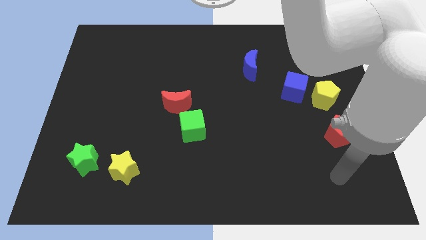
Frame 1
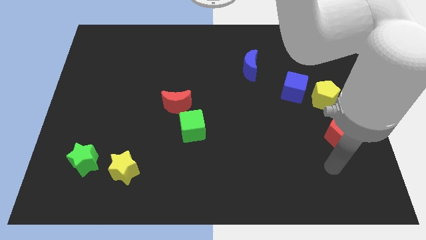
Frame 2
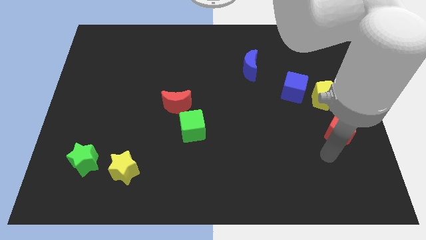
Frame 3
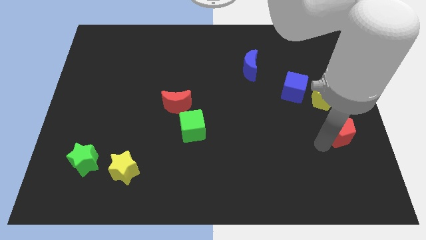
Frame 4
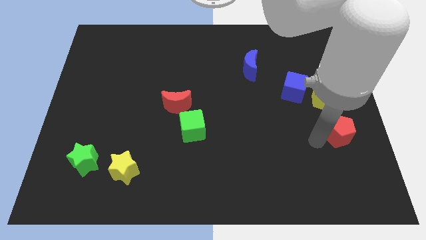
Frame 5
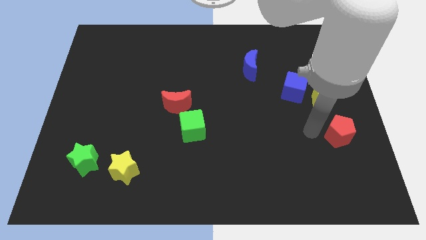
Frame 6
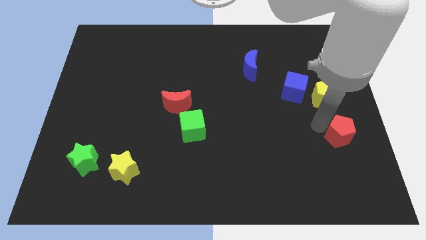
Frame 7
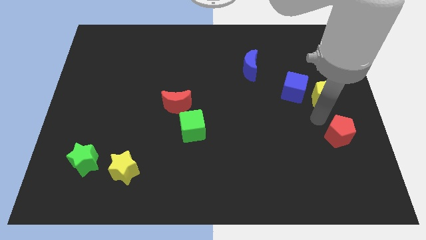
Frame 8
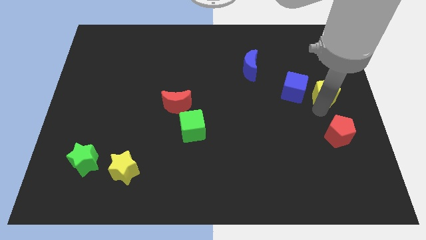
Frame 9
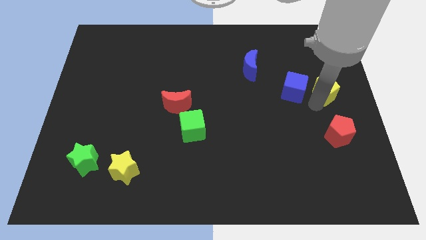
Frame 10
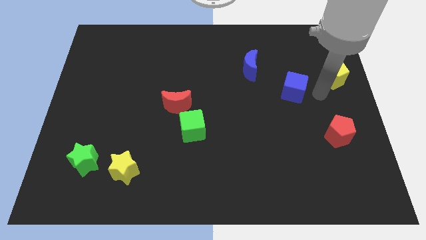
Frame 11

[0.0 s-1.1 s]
pull the blue cube apart from the yellow pentagon

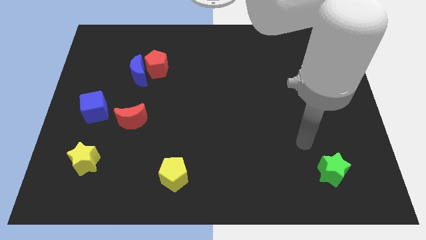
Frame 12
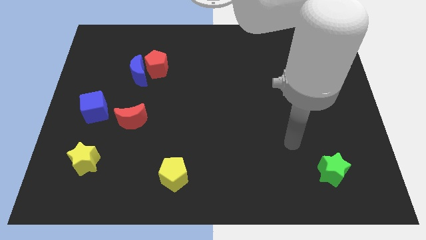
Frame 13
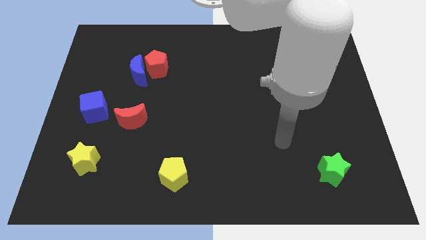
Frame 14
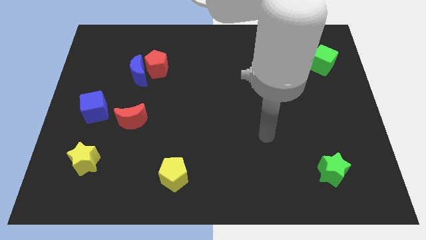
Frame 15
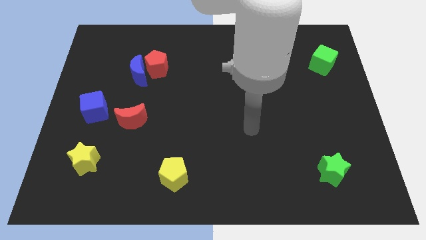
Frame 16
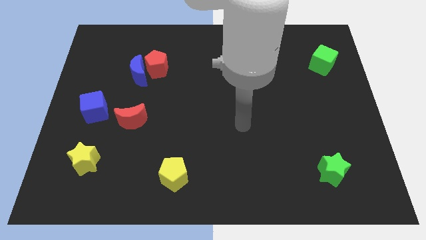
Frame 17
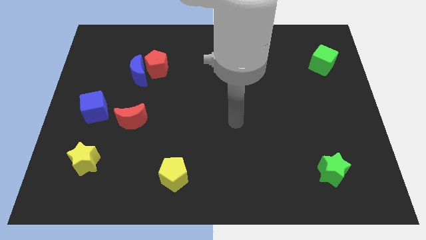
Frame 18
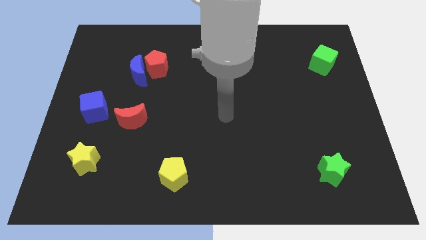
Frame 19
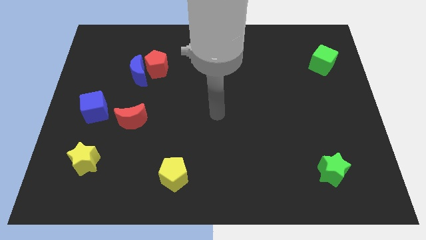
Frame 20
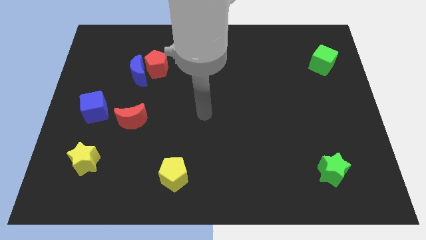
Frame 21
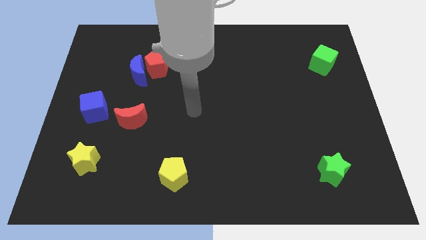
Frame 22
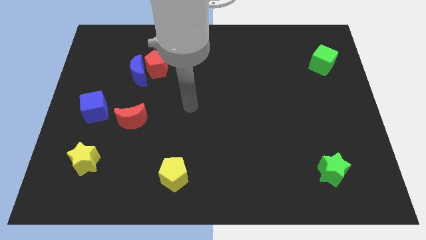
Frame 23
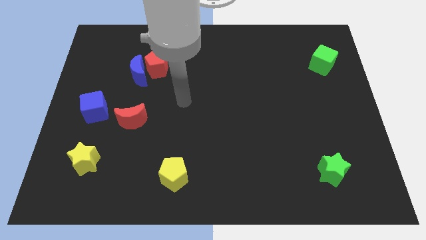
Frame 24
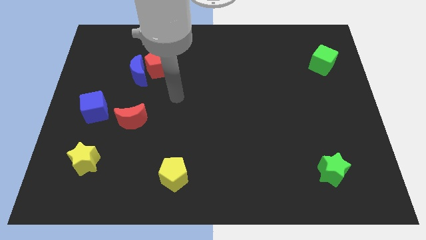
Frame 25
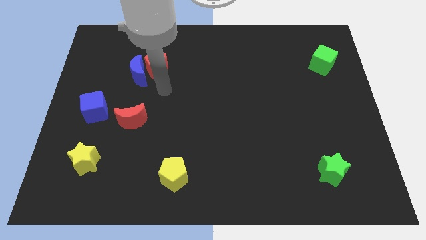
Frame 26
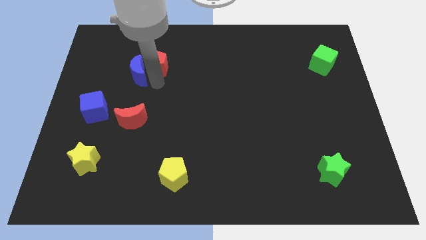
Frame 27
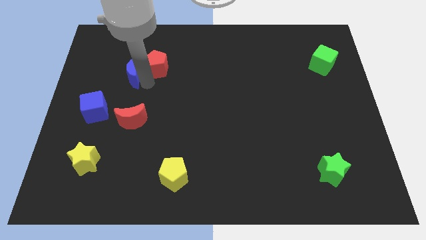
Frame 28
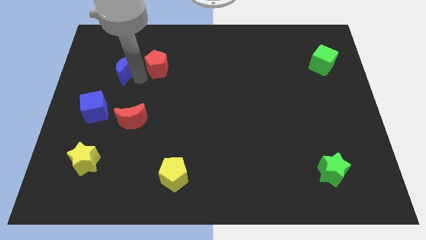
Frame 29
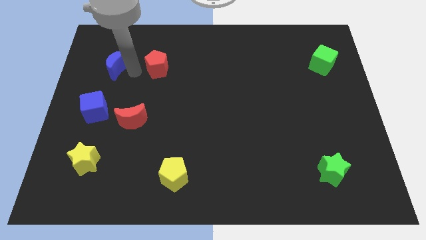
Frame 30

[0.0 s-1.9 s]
pull the red pentagon apart from the blue moon

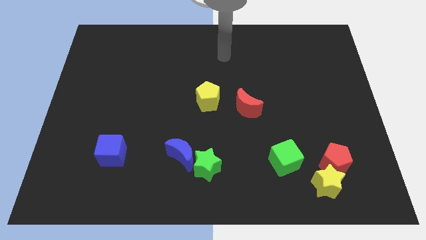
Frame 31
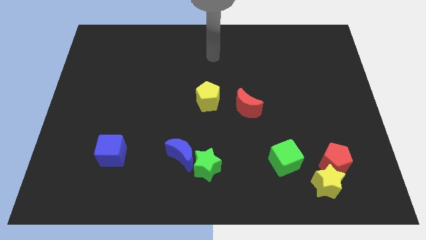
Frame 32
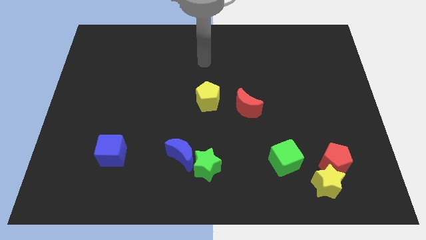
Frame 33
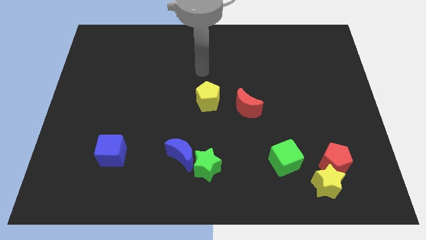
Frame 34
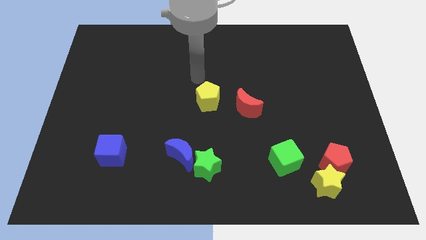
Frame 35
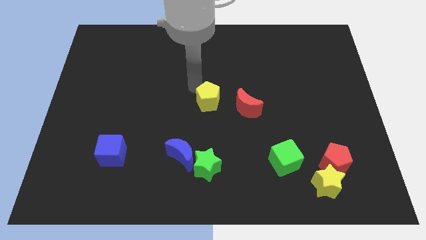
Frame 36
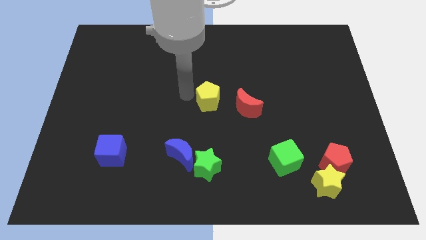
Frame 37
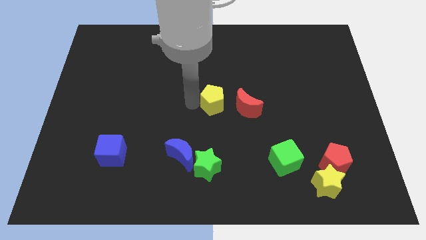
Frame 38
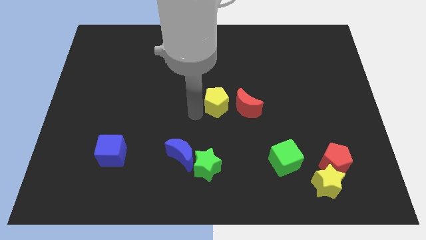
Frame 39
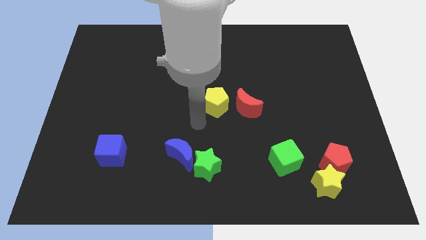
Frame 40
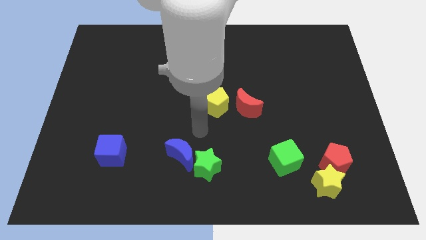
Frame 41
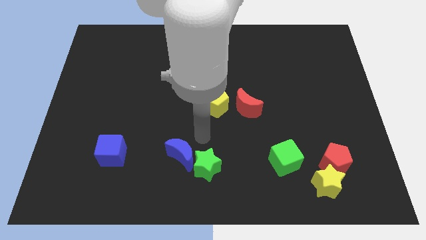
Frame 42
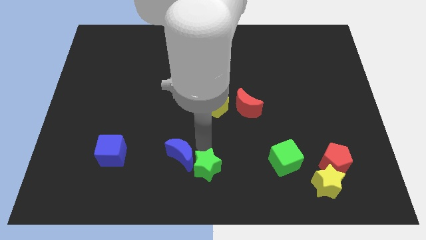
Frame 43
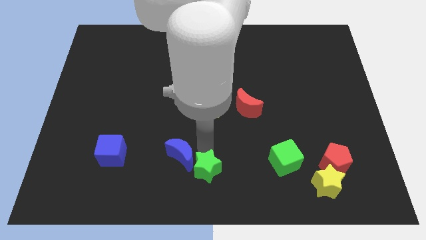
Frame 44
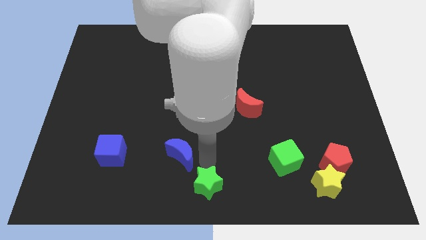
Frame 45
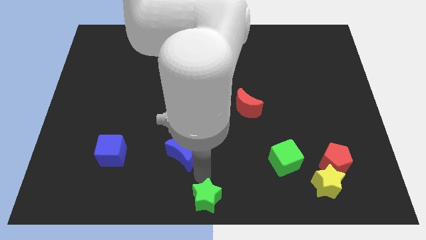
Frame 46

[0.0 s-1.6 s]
move the blue moon away from the green star

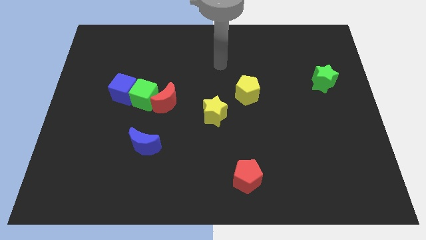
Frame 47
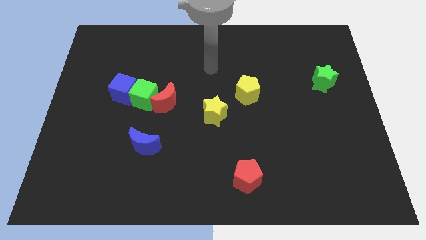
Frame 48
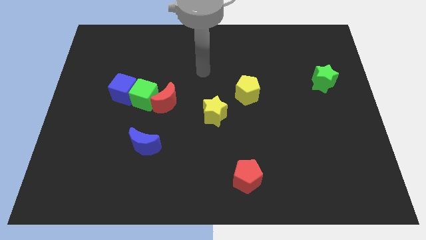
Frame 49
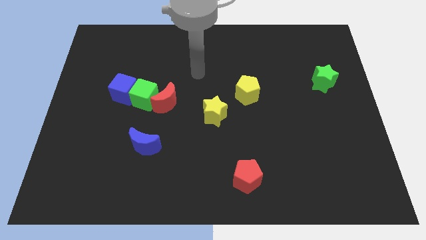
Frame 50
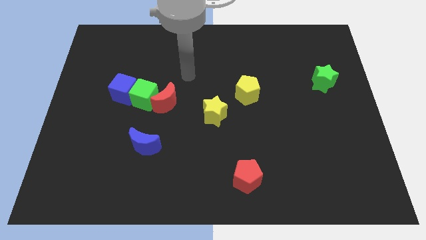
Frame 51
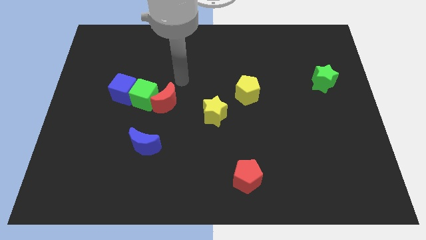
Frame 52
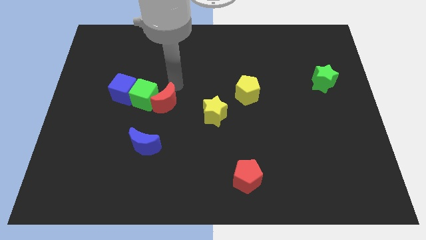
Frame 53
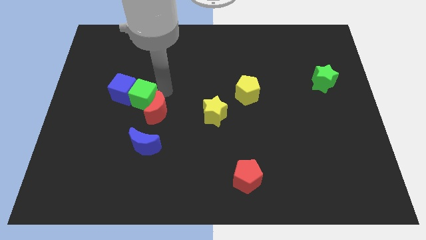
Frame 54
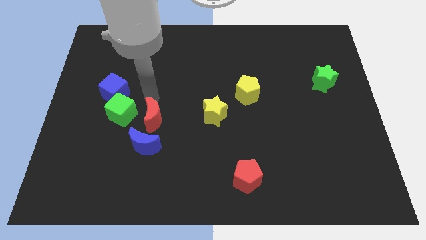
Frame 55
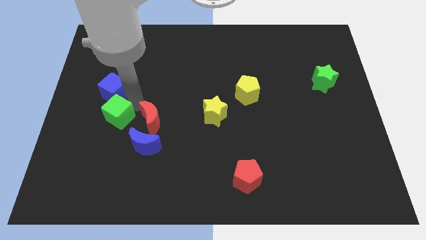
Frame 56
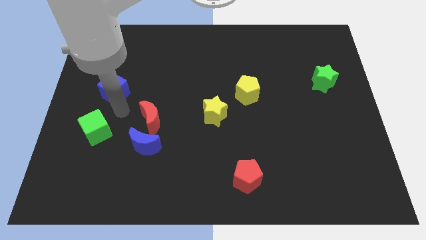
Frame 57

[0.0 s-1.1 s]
separate the blue cube from the green cube

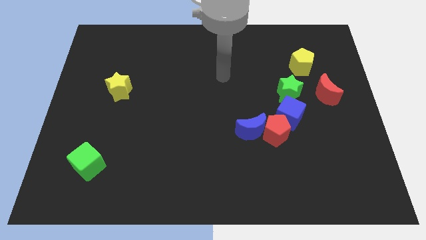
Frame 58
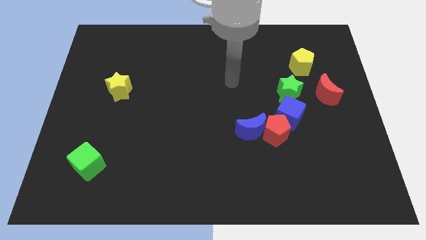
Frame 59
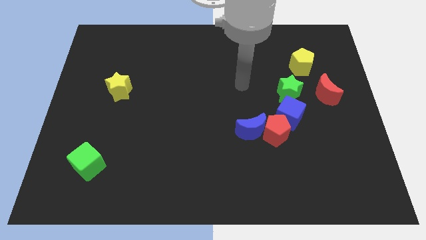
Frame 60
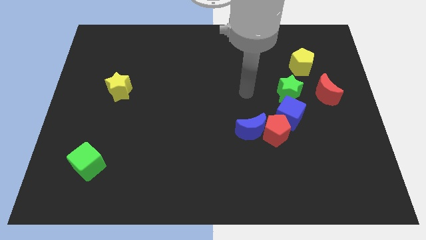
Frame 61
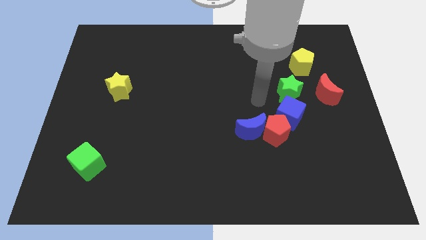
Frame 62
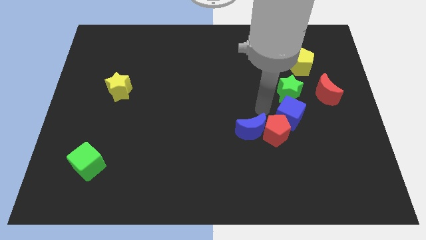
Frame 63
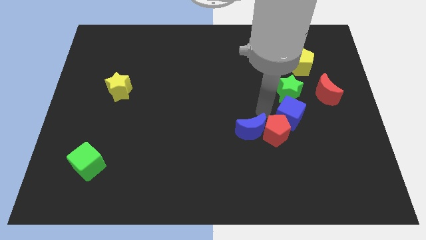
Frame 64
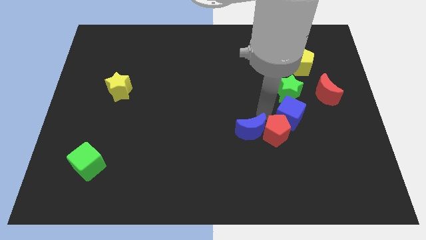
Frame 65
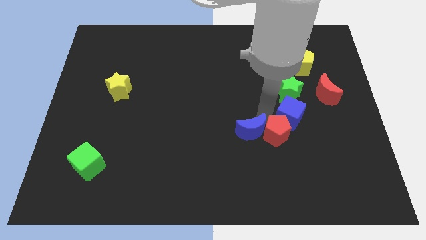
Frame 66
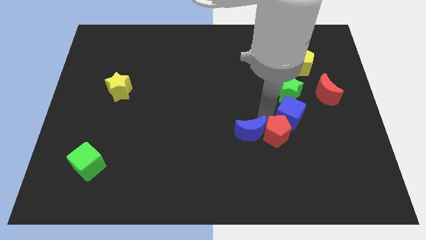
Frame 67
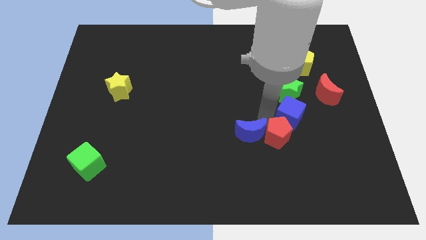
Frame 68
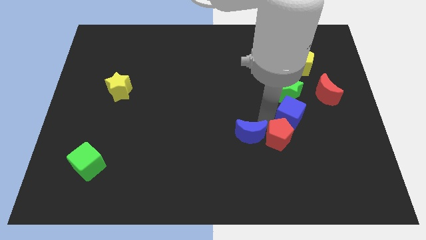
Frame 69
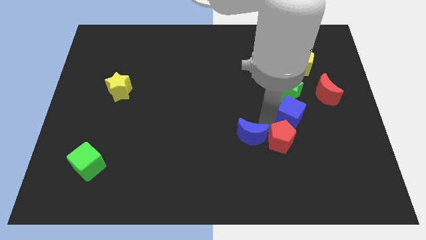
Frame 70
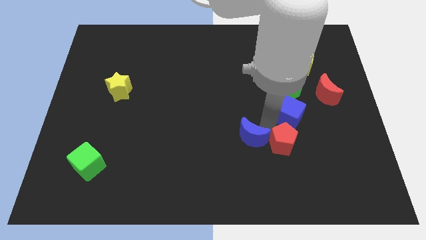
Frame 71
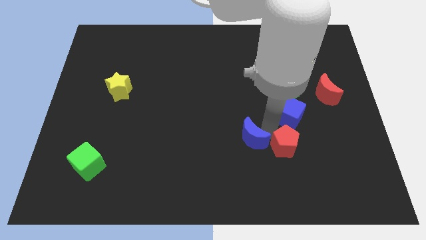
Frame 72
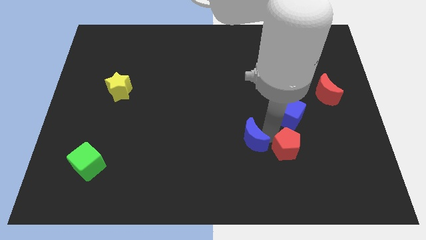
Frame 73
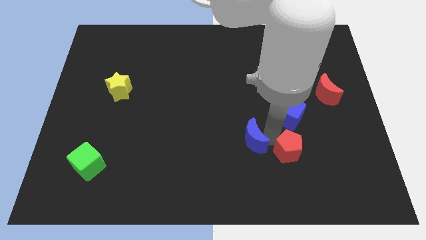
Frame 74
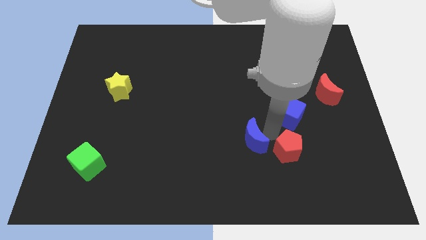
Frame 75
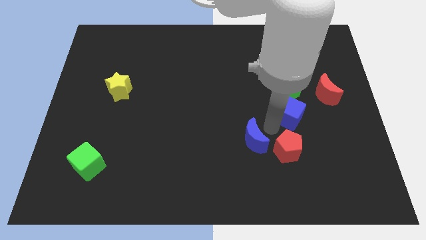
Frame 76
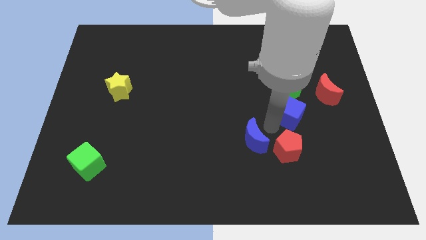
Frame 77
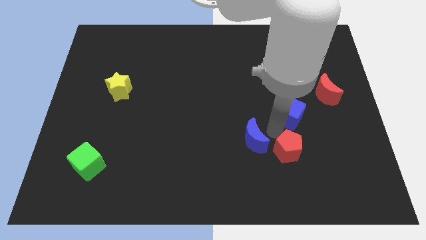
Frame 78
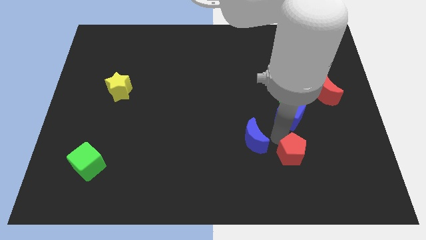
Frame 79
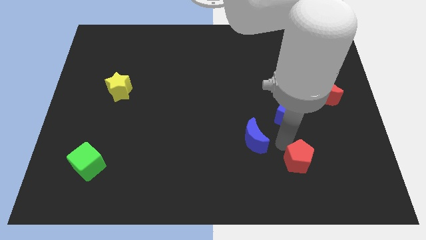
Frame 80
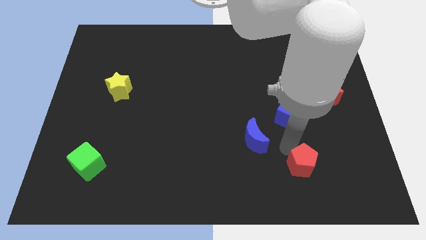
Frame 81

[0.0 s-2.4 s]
pull the red pentagon apart from the blue moon and blue cube

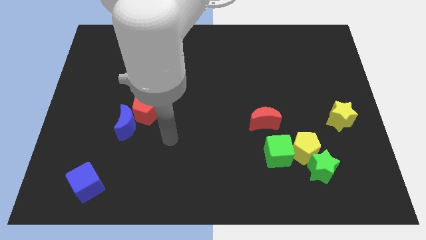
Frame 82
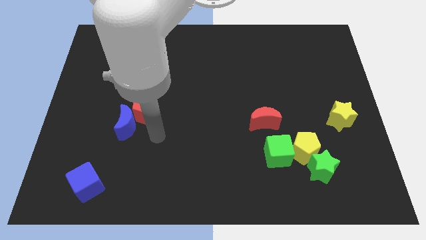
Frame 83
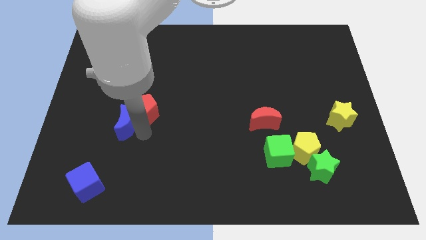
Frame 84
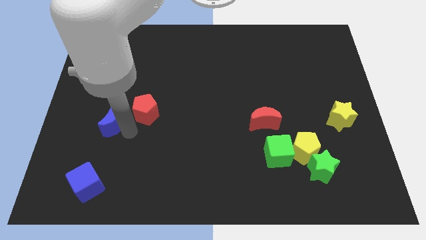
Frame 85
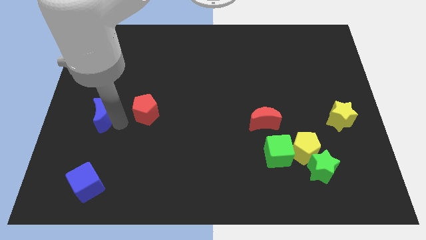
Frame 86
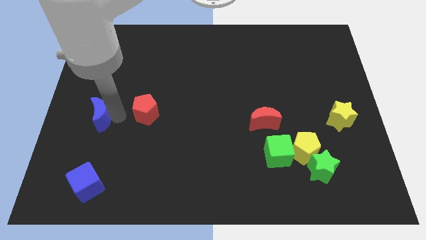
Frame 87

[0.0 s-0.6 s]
move the red pentagon away from the blue moon

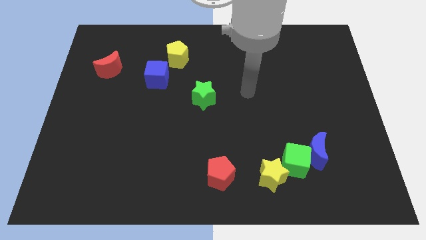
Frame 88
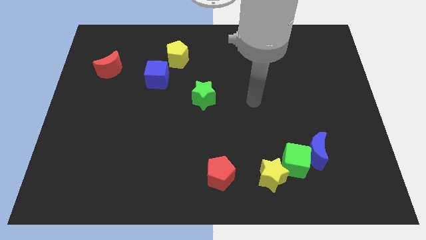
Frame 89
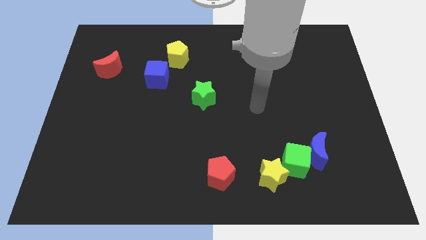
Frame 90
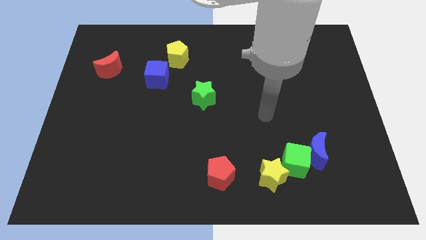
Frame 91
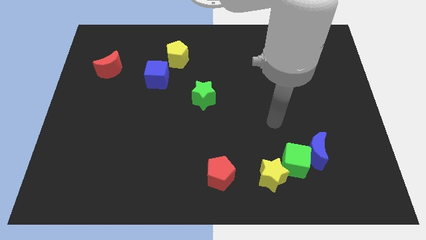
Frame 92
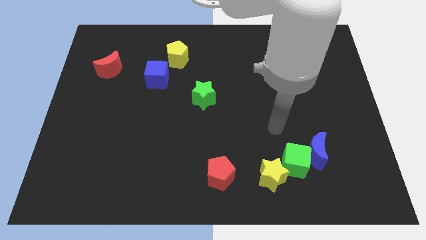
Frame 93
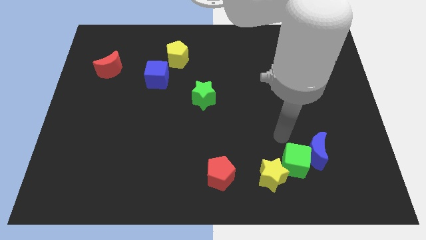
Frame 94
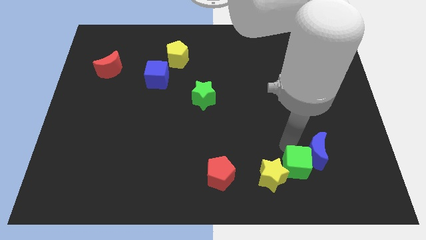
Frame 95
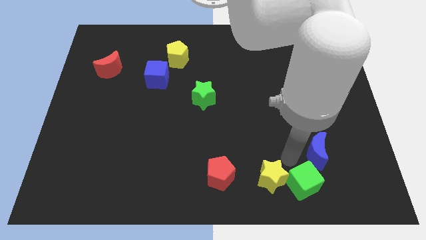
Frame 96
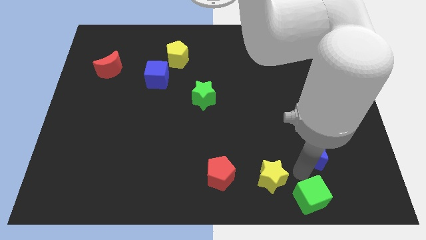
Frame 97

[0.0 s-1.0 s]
move the blue moon away from the green cube
